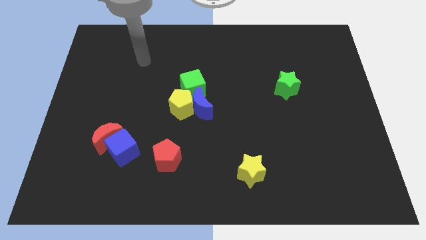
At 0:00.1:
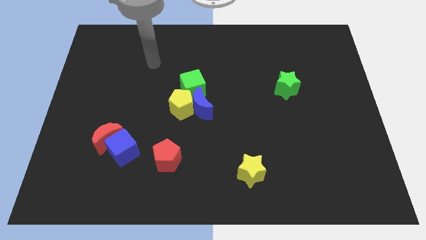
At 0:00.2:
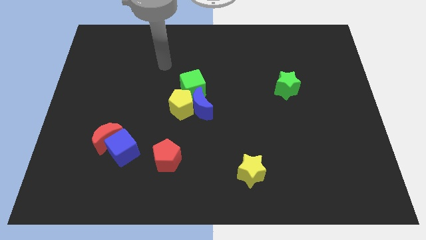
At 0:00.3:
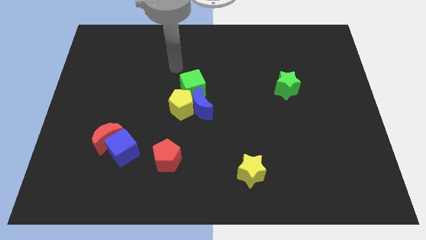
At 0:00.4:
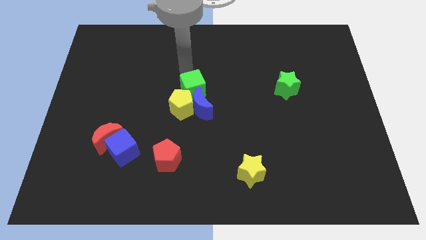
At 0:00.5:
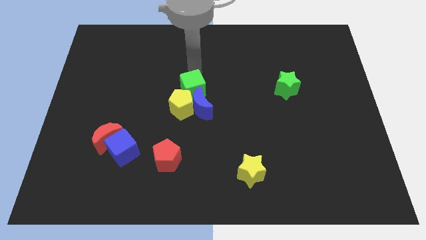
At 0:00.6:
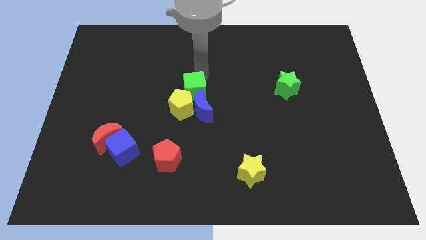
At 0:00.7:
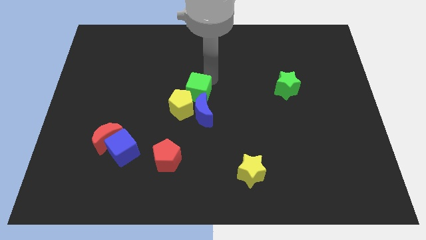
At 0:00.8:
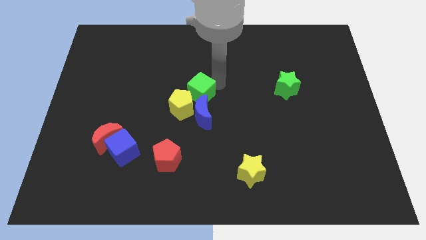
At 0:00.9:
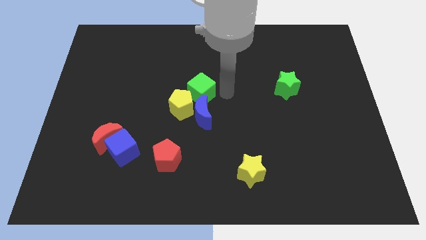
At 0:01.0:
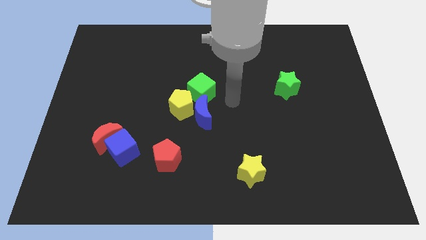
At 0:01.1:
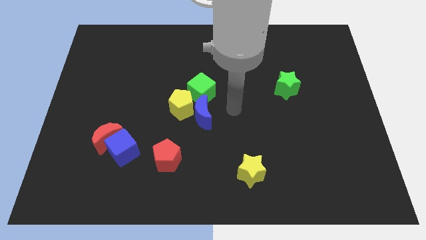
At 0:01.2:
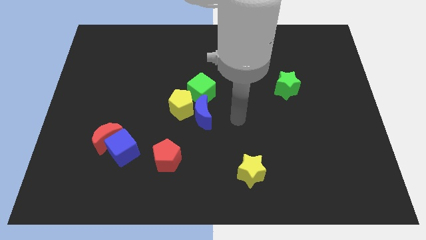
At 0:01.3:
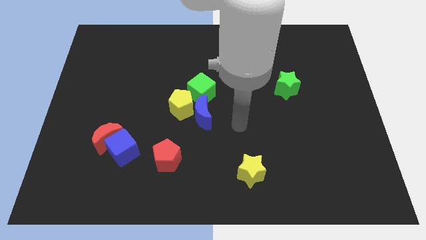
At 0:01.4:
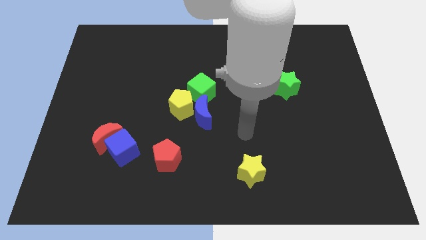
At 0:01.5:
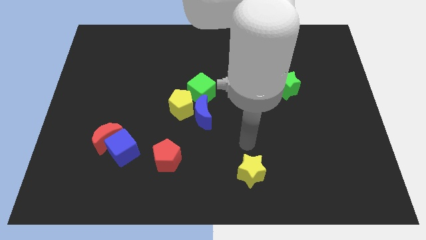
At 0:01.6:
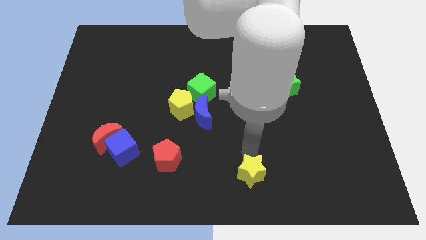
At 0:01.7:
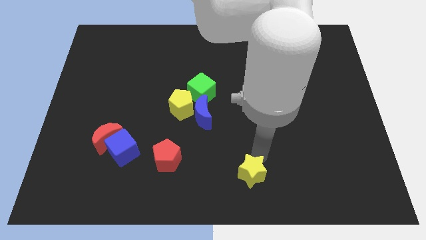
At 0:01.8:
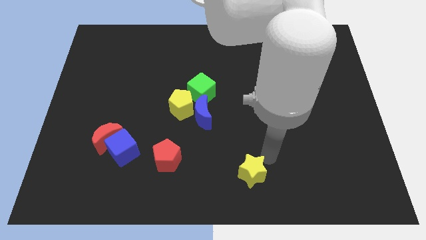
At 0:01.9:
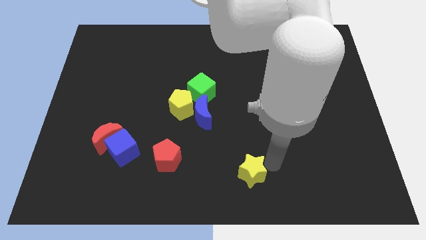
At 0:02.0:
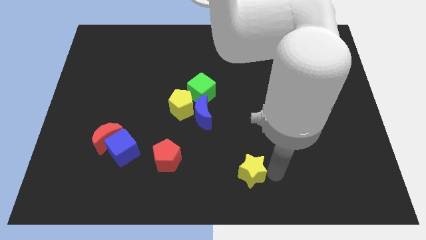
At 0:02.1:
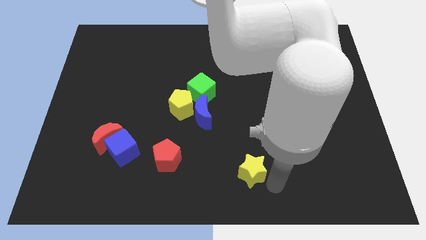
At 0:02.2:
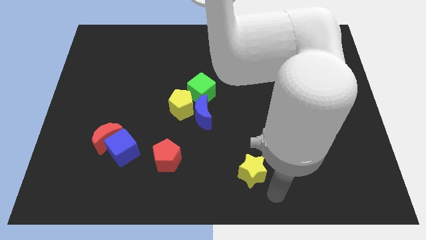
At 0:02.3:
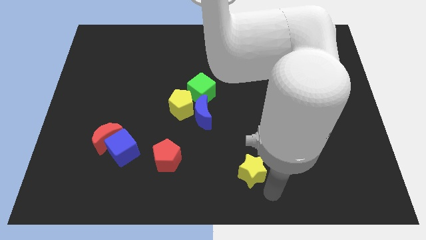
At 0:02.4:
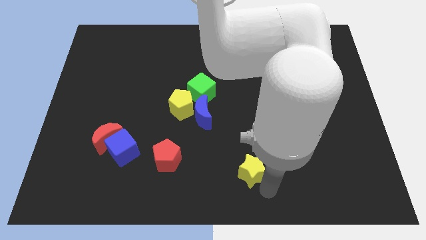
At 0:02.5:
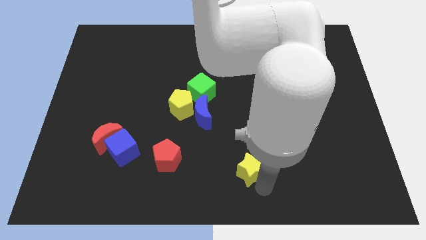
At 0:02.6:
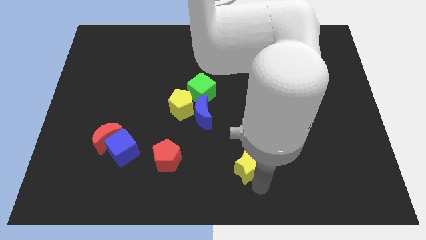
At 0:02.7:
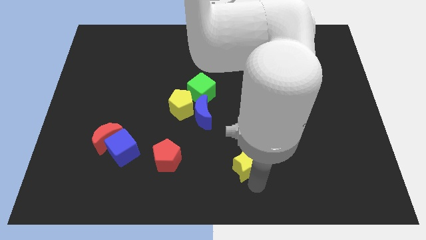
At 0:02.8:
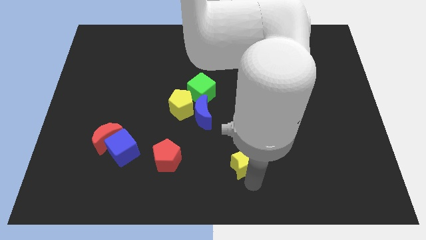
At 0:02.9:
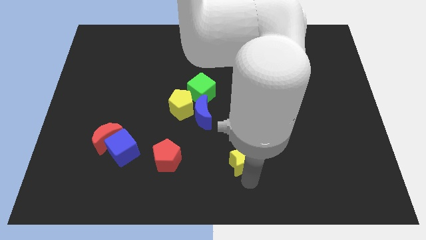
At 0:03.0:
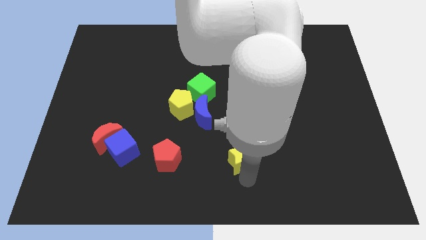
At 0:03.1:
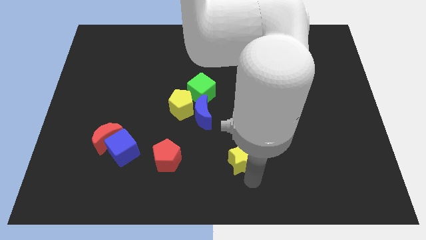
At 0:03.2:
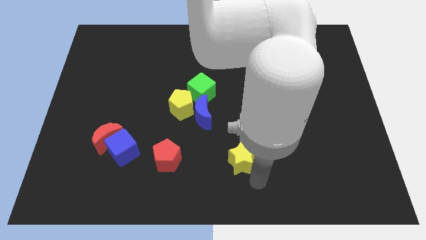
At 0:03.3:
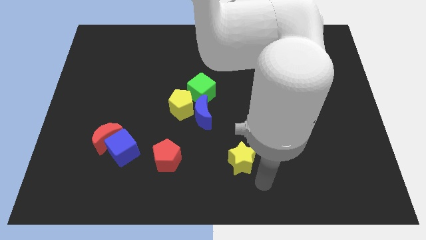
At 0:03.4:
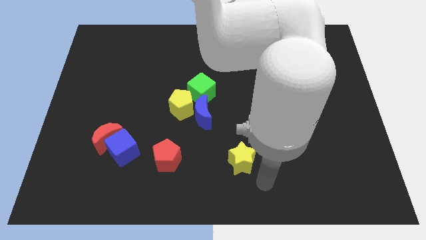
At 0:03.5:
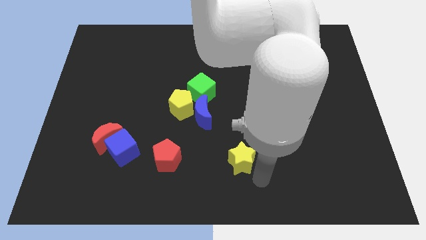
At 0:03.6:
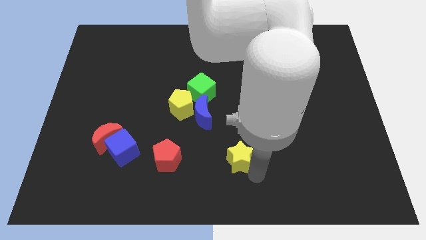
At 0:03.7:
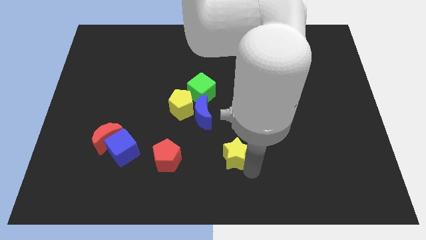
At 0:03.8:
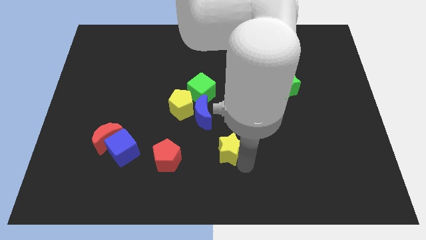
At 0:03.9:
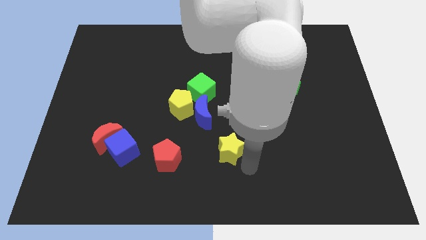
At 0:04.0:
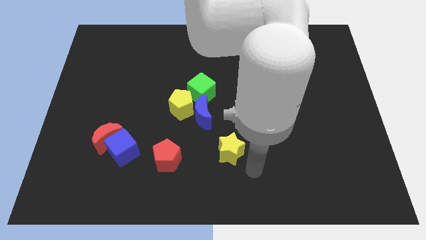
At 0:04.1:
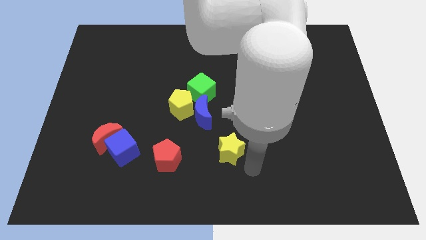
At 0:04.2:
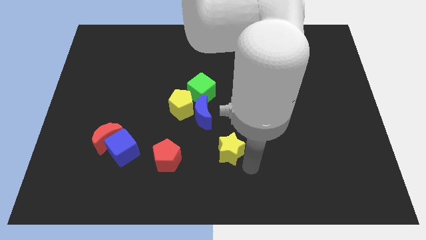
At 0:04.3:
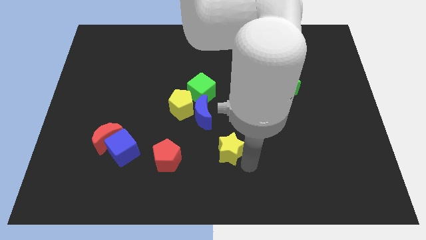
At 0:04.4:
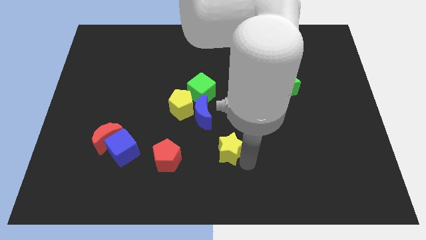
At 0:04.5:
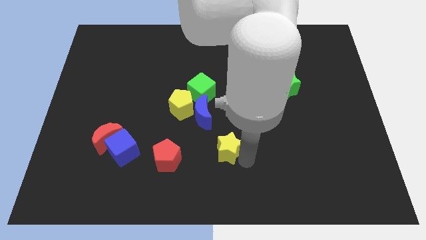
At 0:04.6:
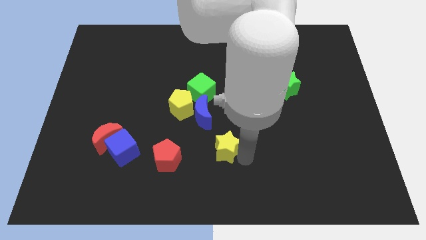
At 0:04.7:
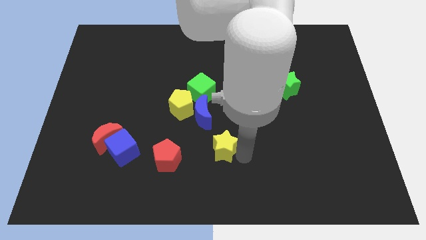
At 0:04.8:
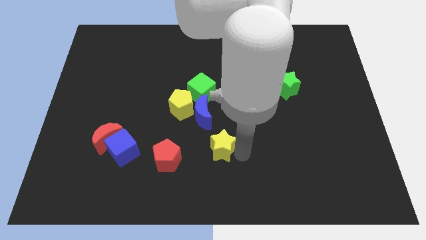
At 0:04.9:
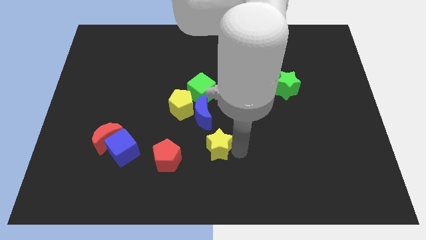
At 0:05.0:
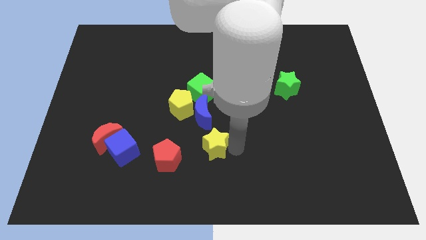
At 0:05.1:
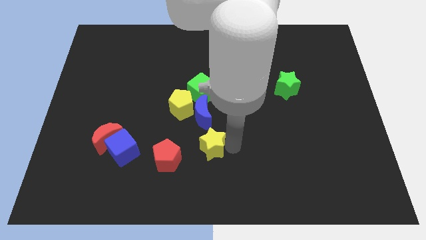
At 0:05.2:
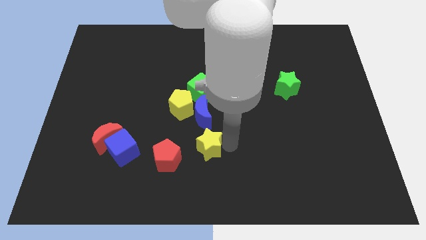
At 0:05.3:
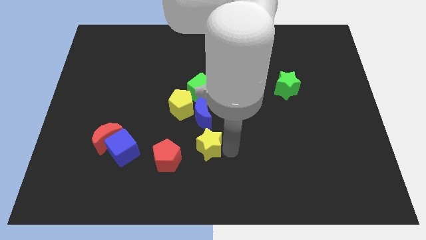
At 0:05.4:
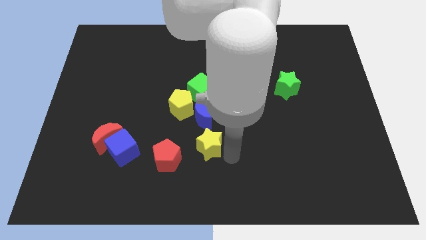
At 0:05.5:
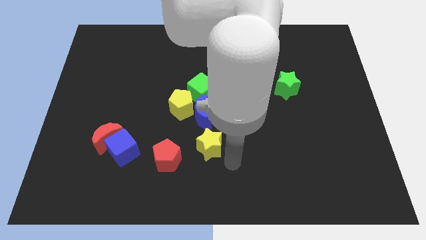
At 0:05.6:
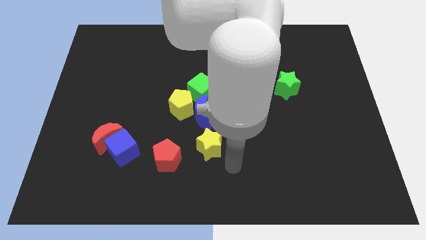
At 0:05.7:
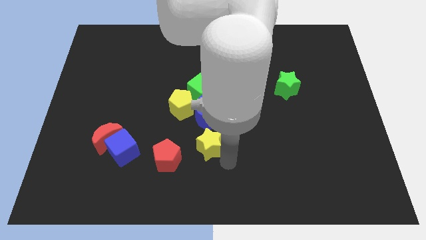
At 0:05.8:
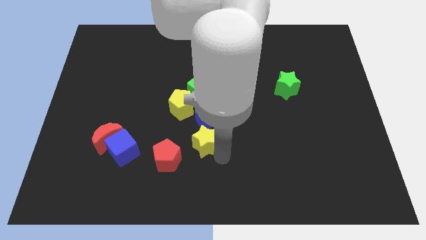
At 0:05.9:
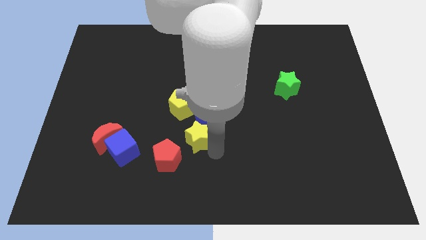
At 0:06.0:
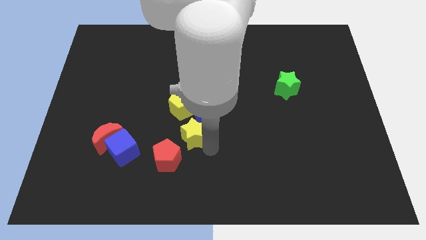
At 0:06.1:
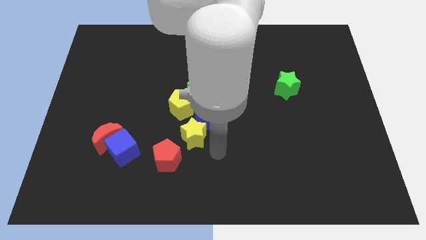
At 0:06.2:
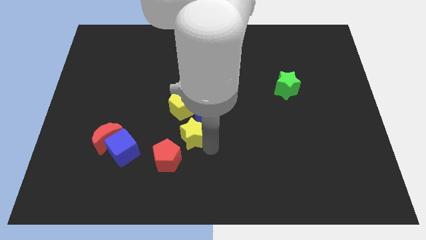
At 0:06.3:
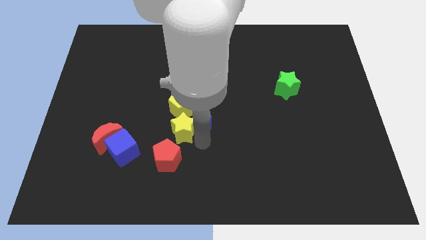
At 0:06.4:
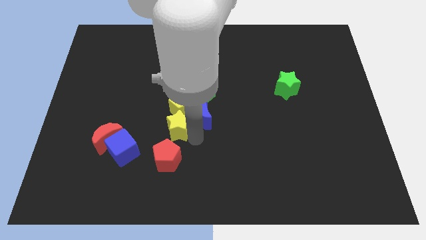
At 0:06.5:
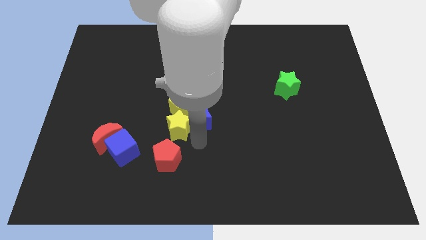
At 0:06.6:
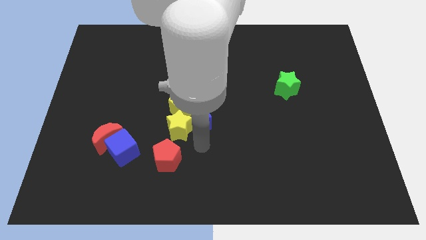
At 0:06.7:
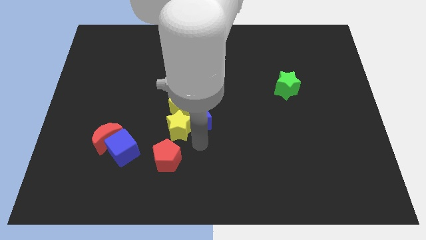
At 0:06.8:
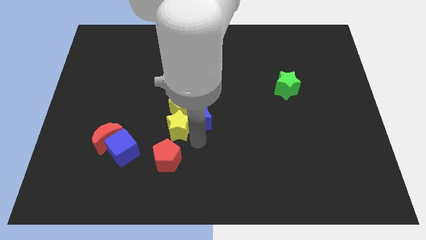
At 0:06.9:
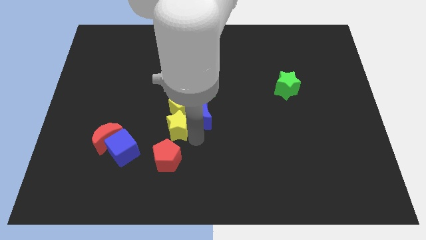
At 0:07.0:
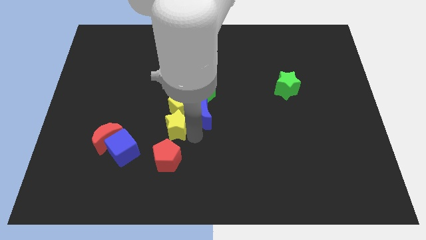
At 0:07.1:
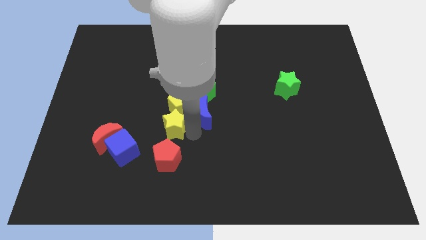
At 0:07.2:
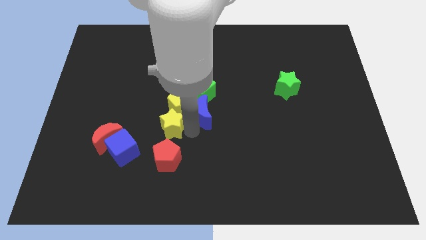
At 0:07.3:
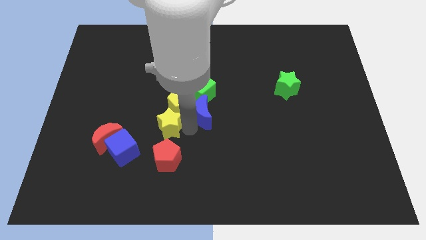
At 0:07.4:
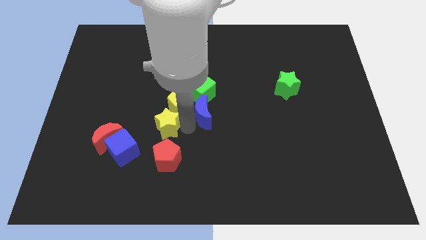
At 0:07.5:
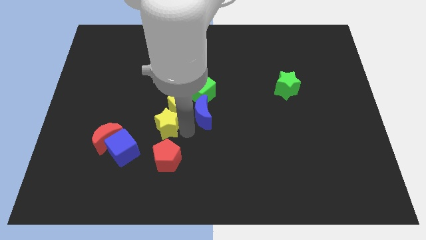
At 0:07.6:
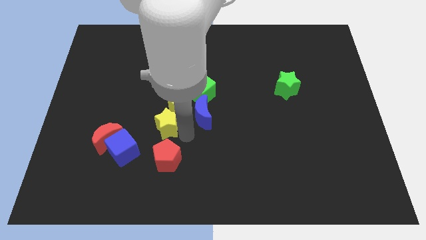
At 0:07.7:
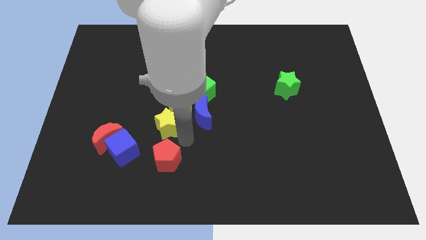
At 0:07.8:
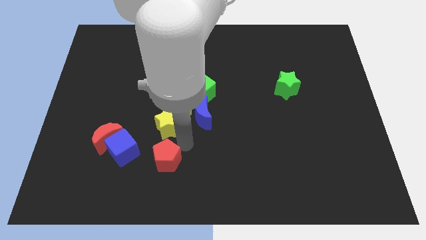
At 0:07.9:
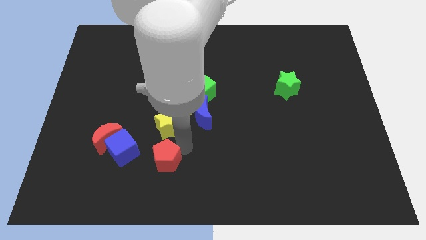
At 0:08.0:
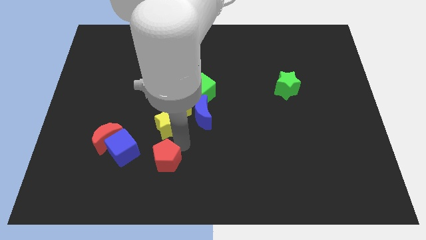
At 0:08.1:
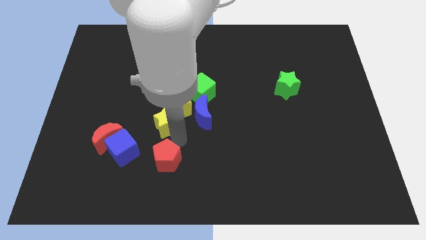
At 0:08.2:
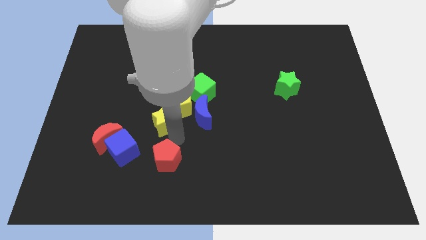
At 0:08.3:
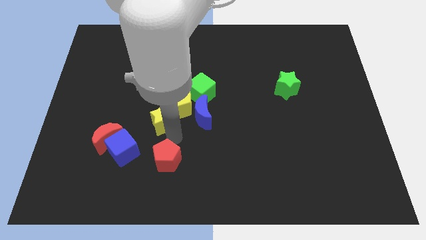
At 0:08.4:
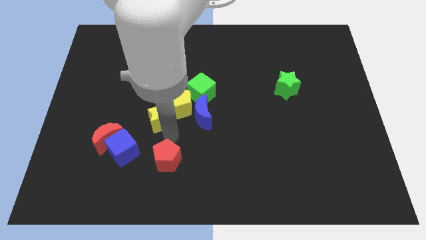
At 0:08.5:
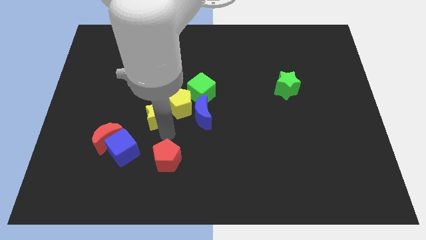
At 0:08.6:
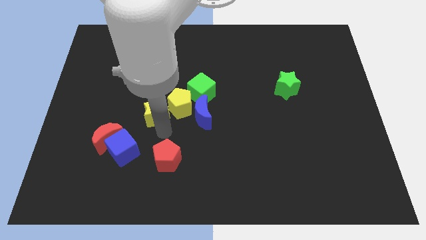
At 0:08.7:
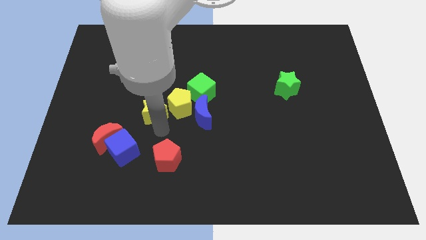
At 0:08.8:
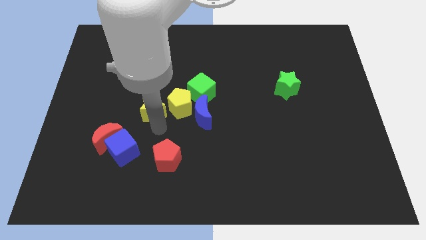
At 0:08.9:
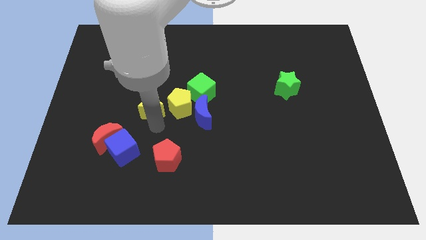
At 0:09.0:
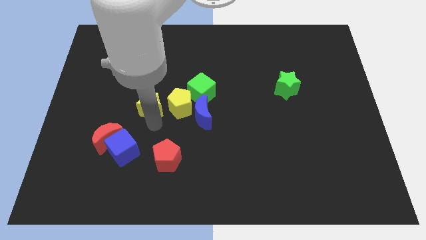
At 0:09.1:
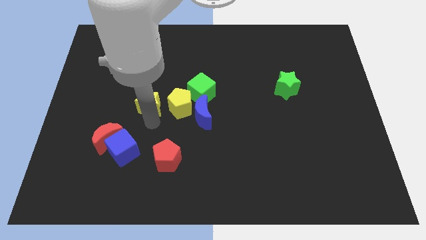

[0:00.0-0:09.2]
put the yellow star to the left side of the green cube
